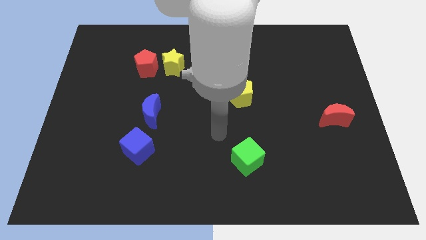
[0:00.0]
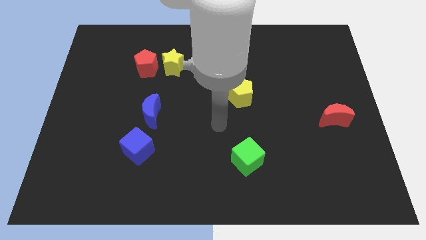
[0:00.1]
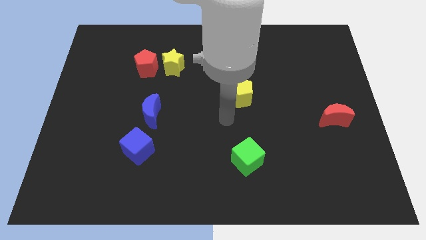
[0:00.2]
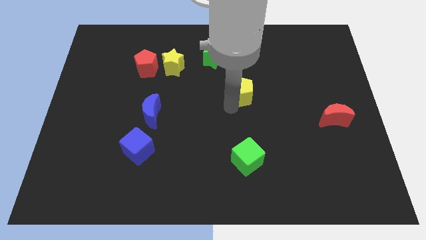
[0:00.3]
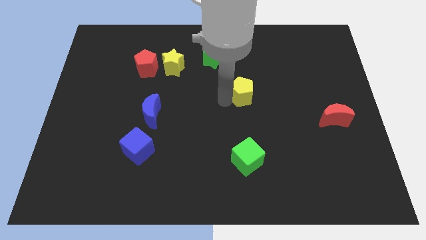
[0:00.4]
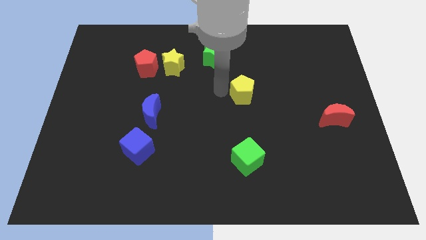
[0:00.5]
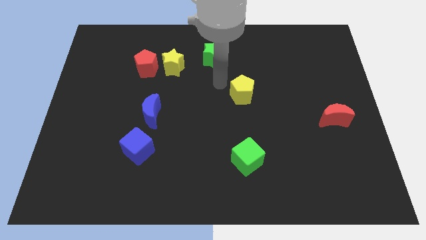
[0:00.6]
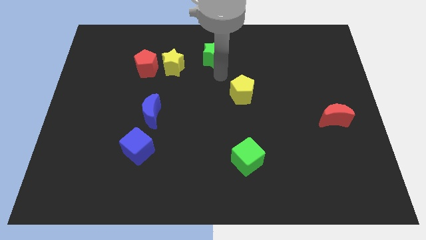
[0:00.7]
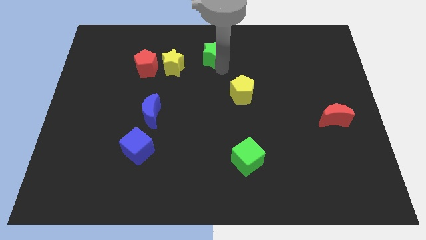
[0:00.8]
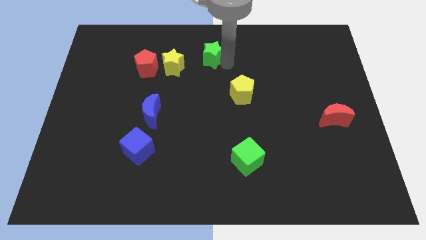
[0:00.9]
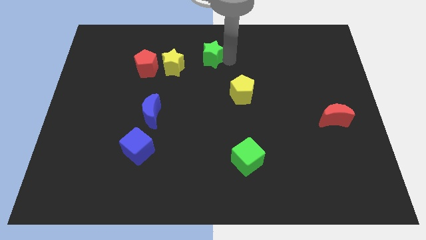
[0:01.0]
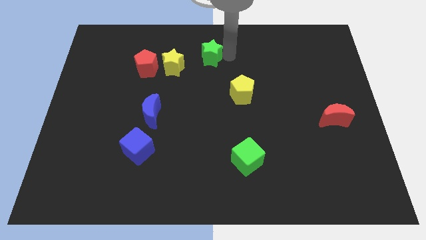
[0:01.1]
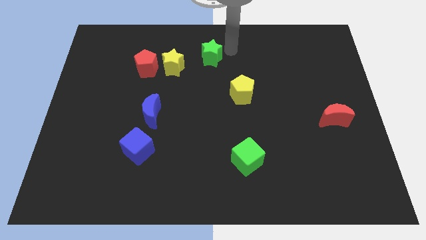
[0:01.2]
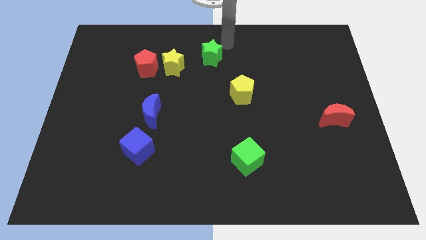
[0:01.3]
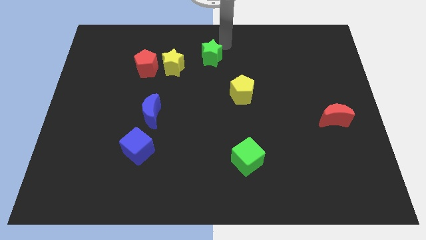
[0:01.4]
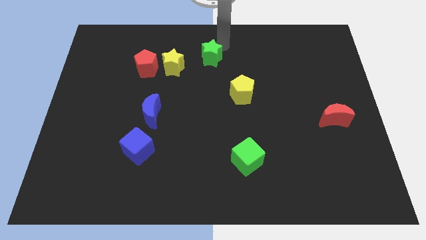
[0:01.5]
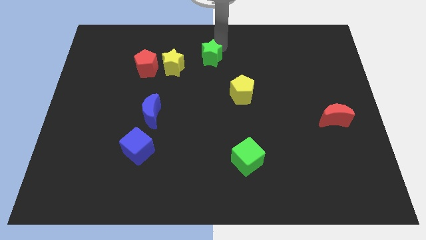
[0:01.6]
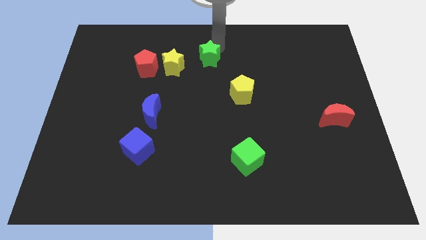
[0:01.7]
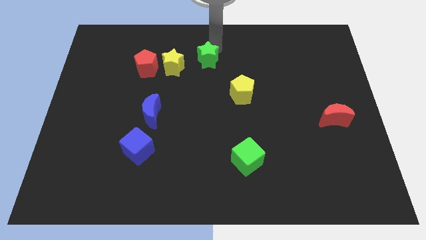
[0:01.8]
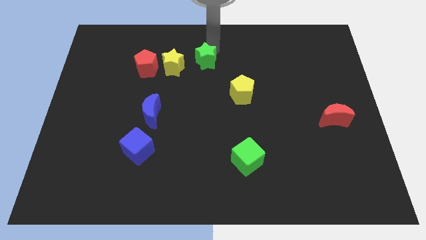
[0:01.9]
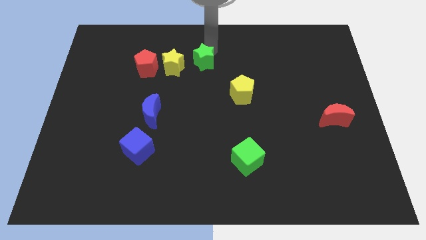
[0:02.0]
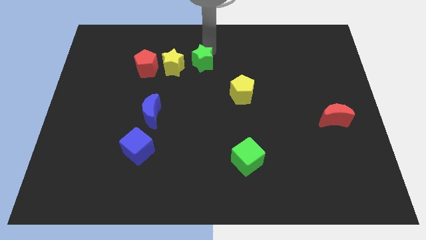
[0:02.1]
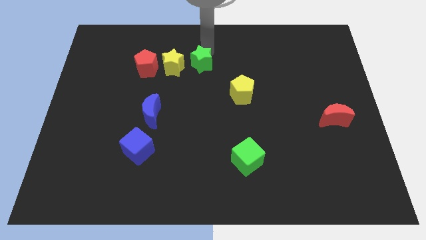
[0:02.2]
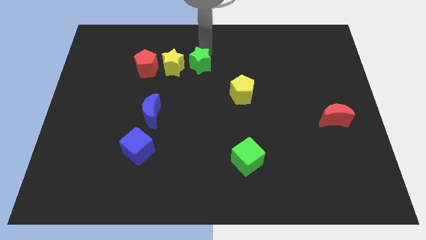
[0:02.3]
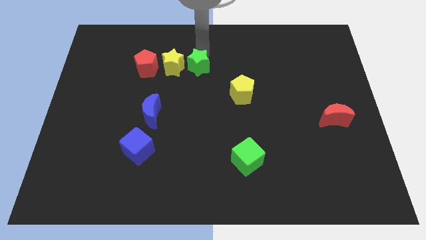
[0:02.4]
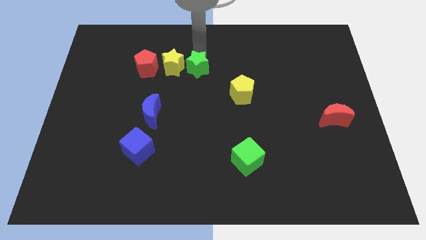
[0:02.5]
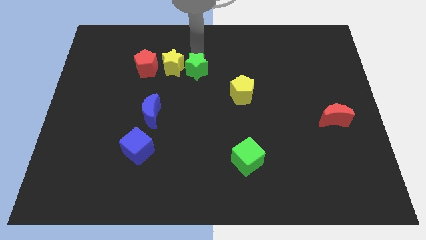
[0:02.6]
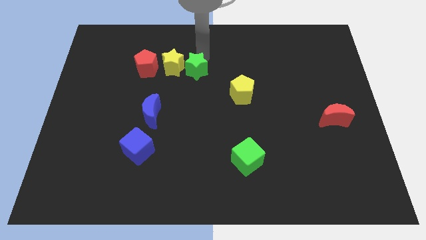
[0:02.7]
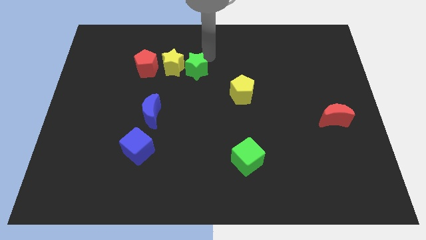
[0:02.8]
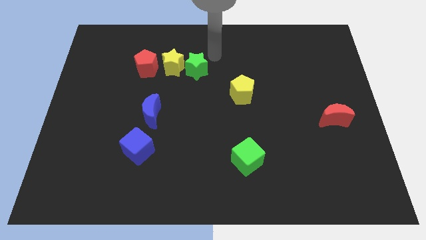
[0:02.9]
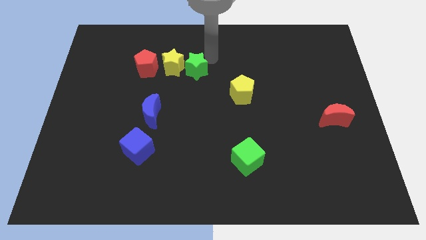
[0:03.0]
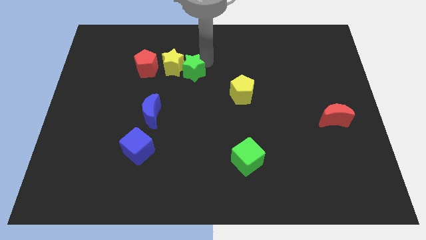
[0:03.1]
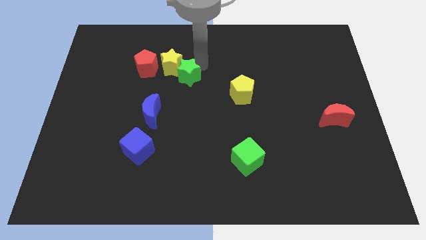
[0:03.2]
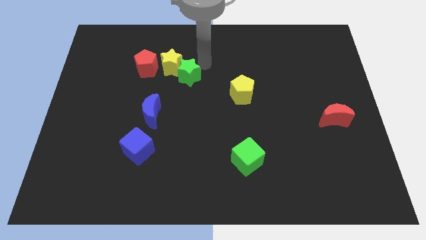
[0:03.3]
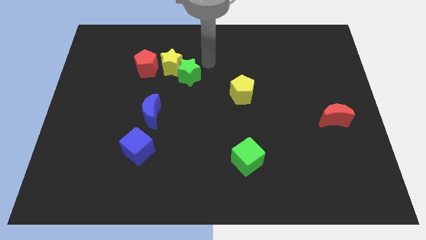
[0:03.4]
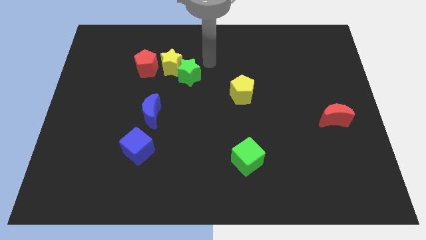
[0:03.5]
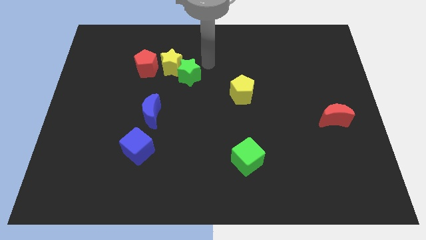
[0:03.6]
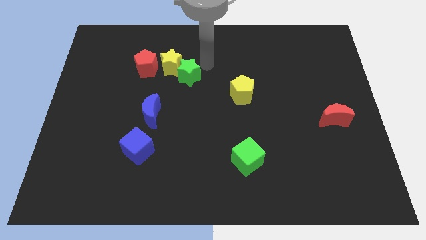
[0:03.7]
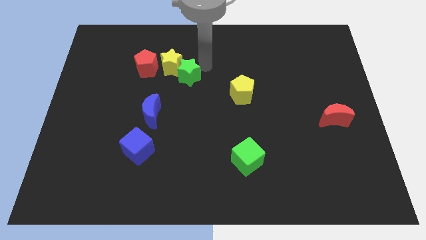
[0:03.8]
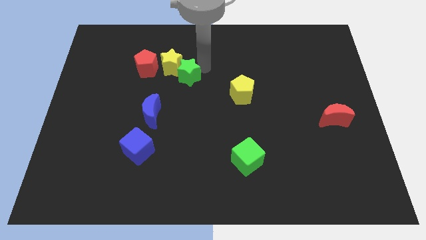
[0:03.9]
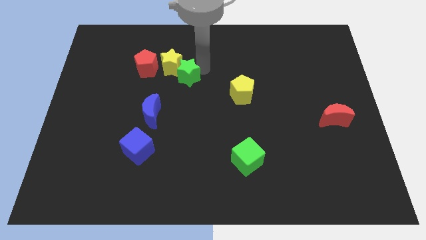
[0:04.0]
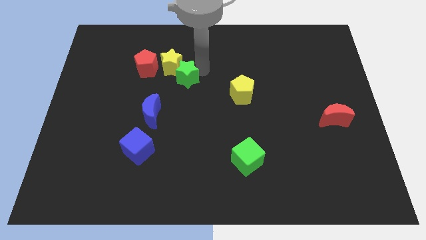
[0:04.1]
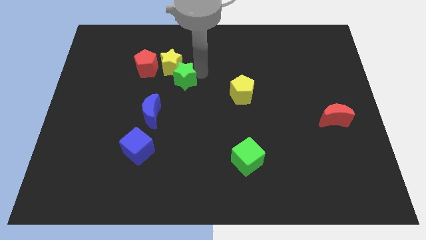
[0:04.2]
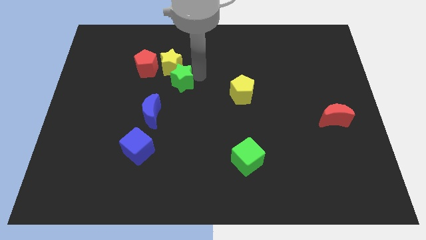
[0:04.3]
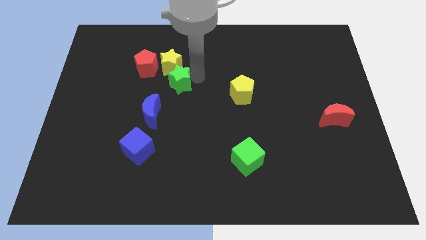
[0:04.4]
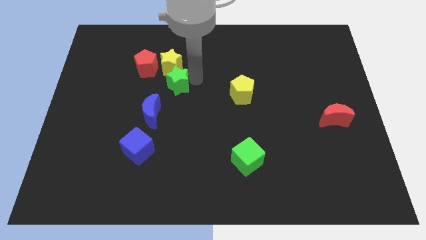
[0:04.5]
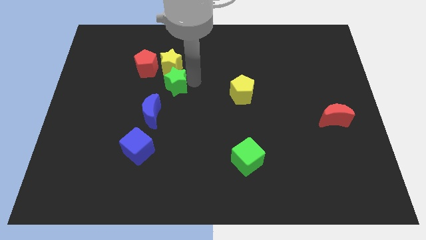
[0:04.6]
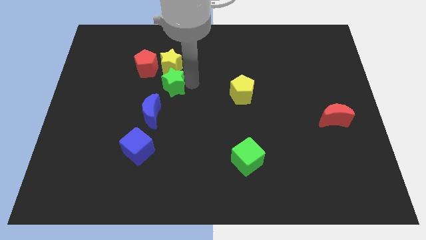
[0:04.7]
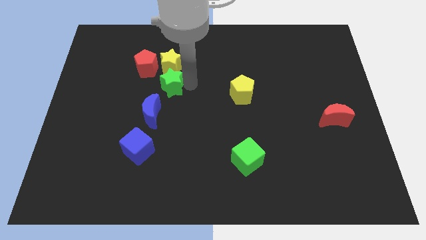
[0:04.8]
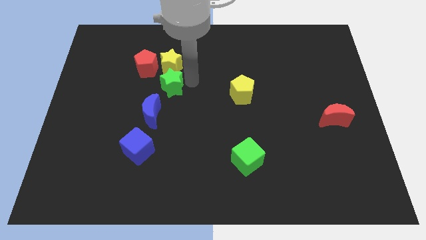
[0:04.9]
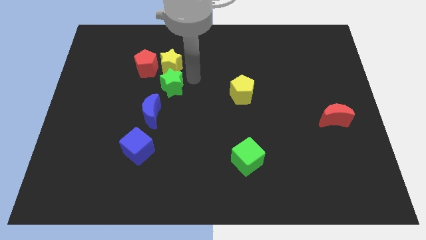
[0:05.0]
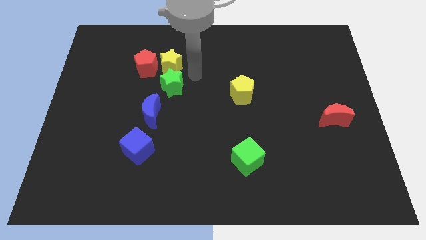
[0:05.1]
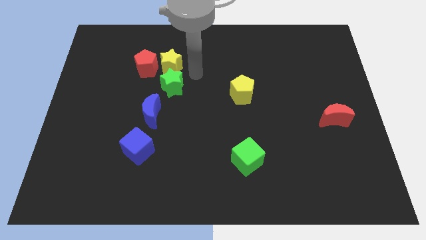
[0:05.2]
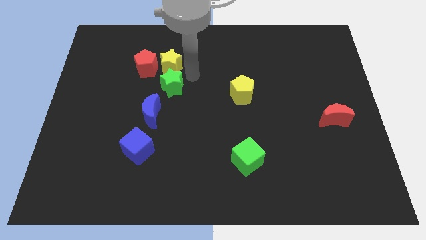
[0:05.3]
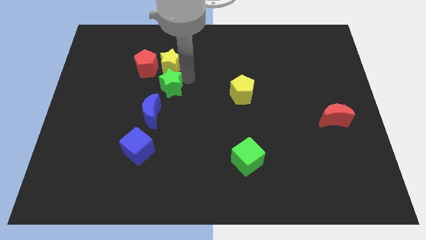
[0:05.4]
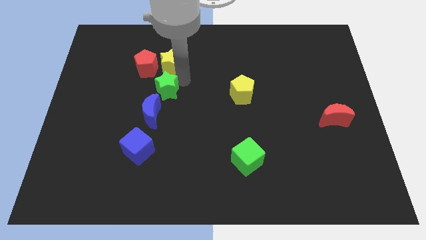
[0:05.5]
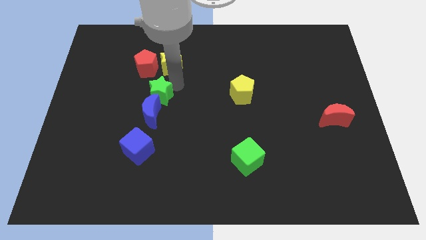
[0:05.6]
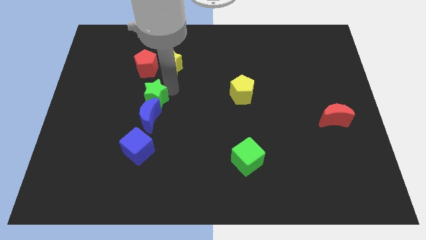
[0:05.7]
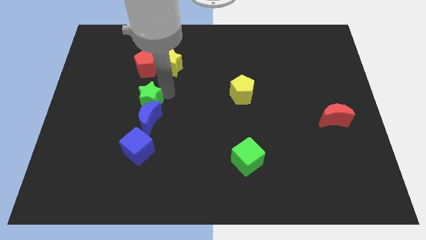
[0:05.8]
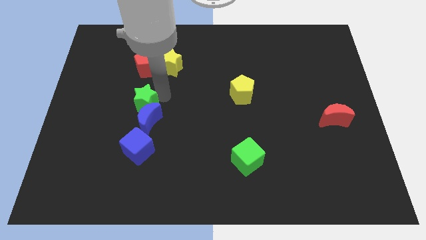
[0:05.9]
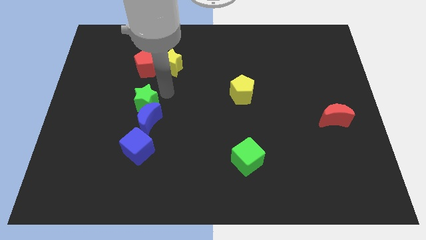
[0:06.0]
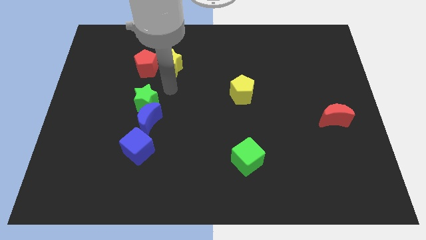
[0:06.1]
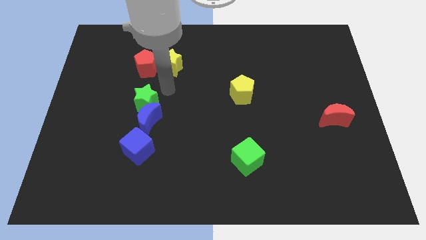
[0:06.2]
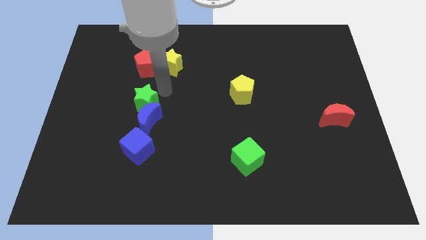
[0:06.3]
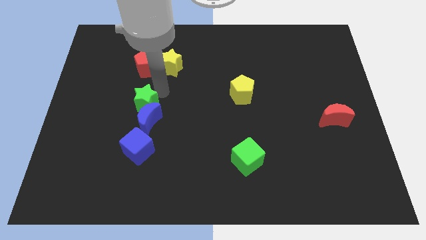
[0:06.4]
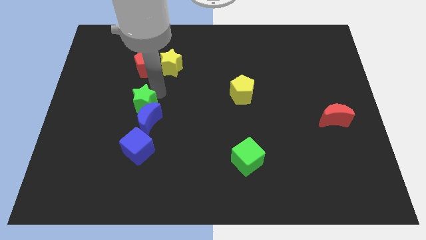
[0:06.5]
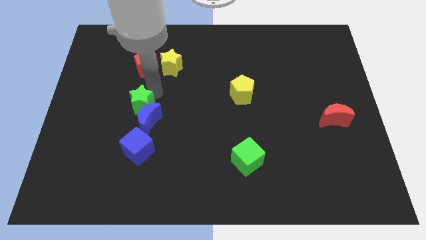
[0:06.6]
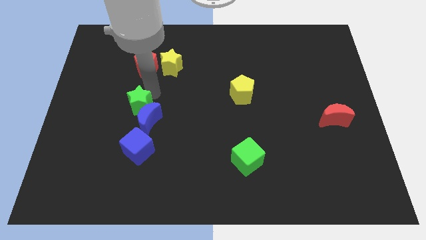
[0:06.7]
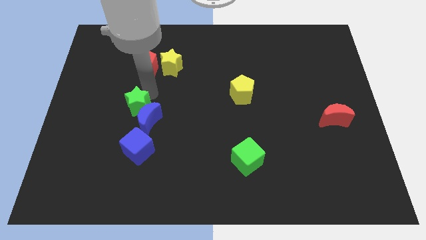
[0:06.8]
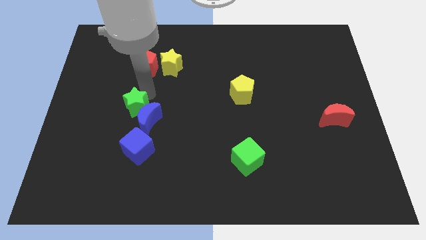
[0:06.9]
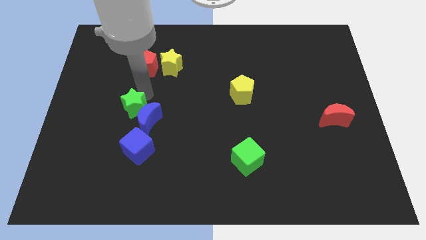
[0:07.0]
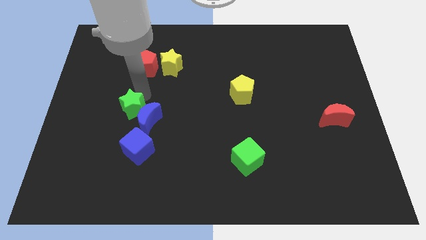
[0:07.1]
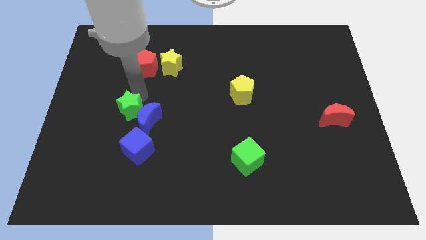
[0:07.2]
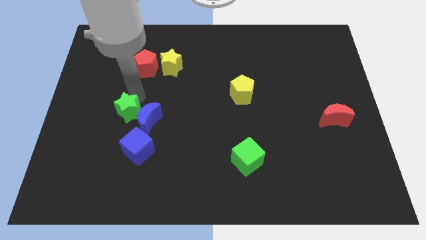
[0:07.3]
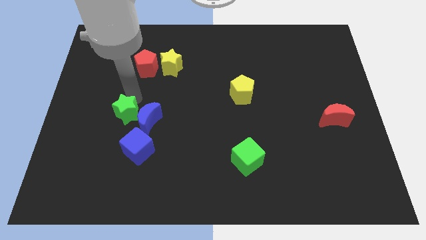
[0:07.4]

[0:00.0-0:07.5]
slide the green star to the top left of the blue cube

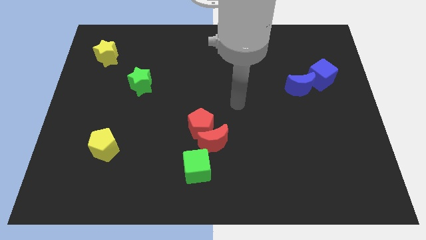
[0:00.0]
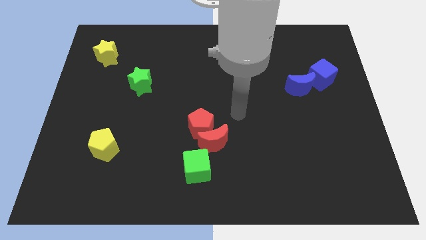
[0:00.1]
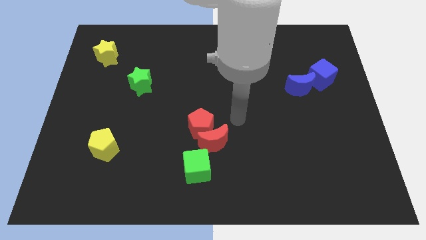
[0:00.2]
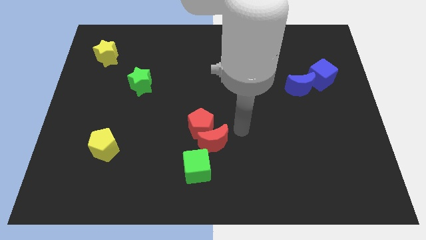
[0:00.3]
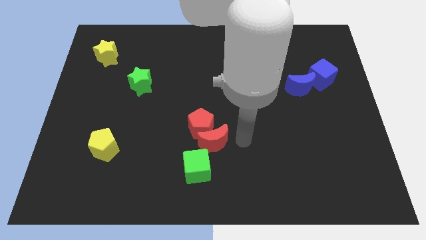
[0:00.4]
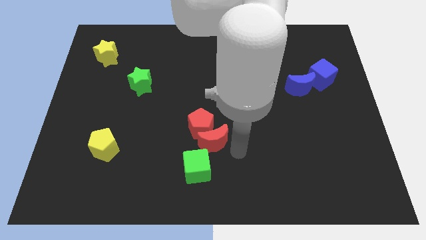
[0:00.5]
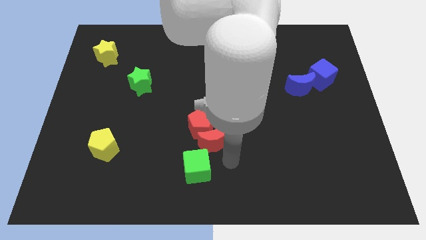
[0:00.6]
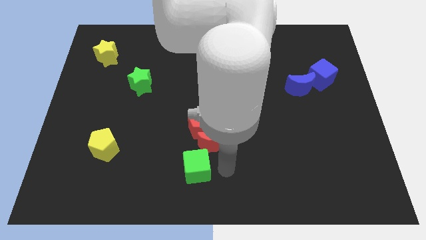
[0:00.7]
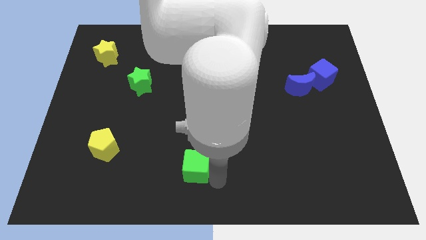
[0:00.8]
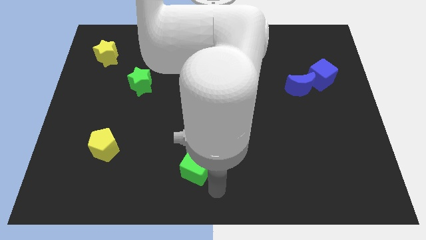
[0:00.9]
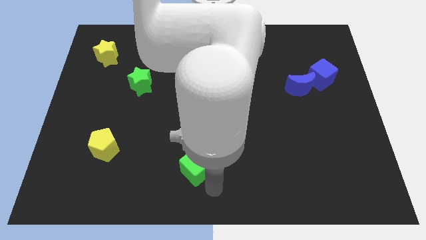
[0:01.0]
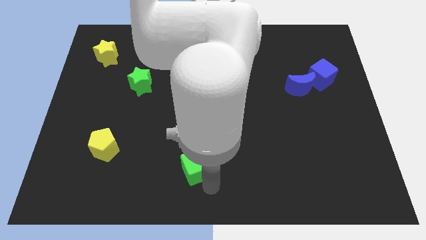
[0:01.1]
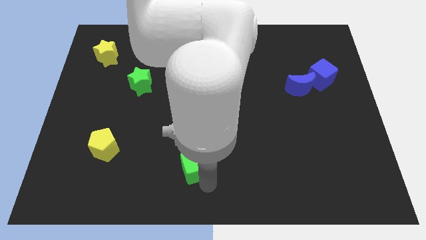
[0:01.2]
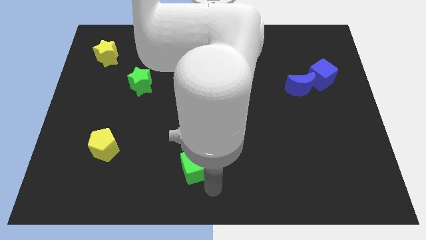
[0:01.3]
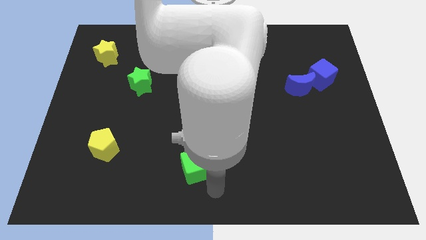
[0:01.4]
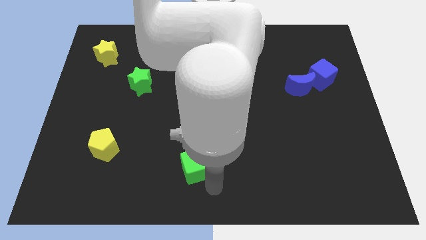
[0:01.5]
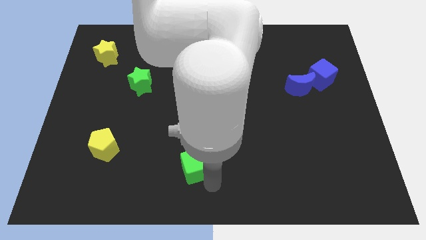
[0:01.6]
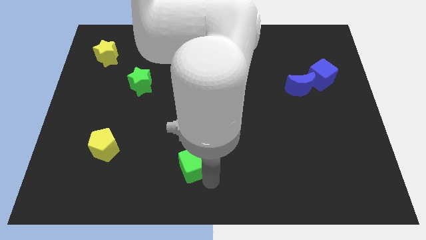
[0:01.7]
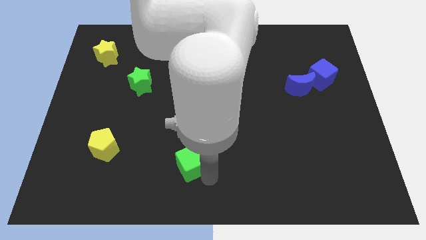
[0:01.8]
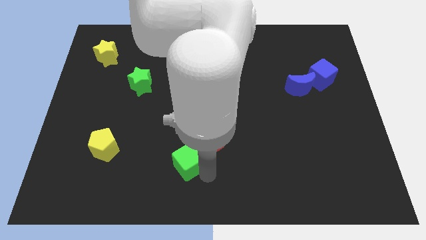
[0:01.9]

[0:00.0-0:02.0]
push the green cube diagonally down and to the left of the red pentagon
